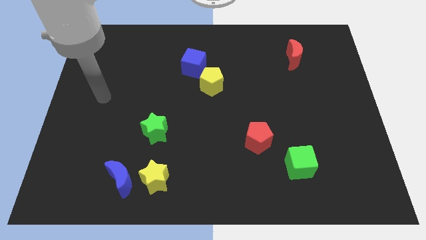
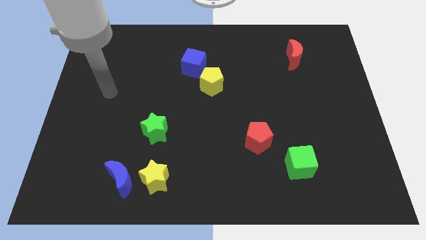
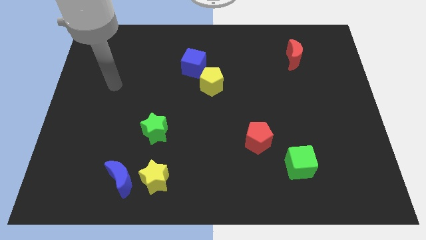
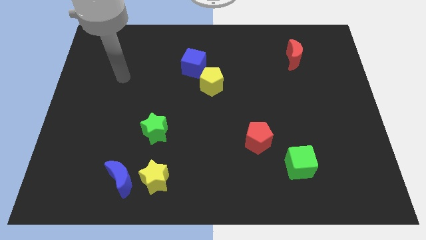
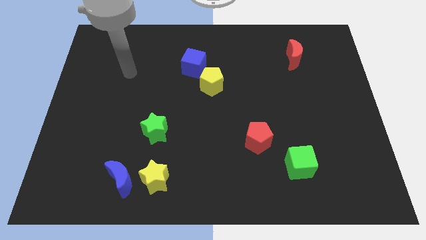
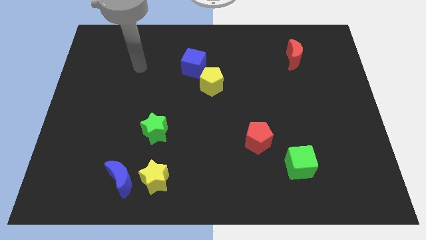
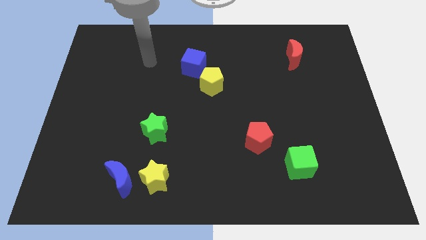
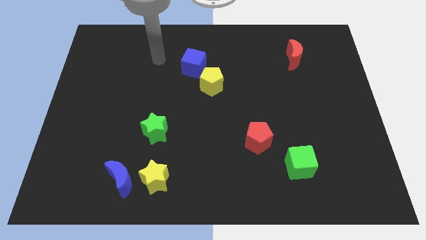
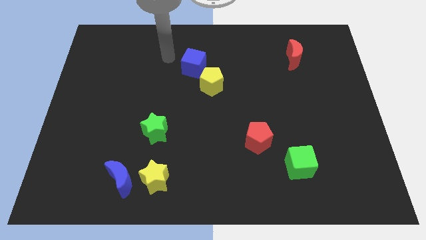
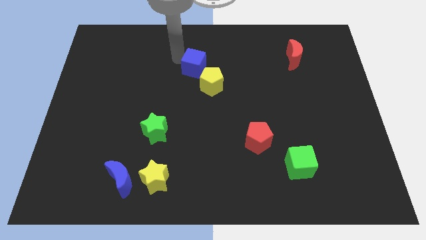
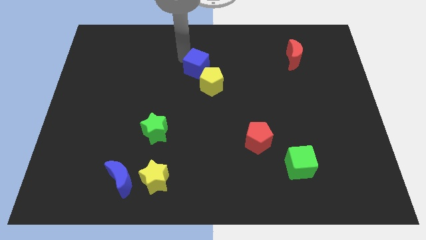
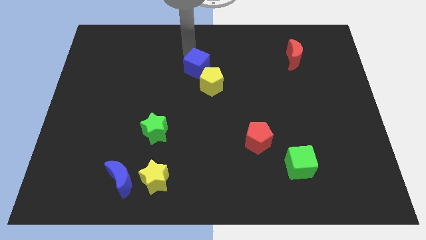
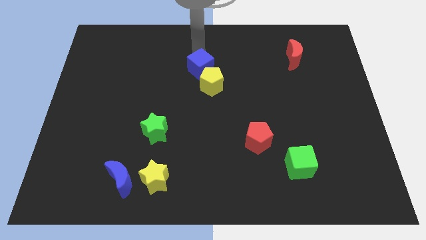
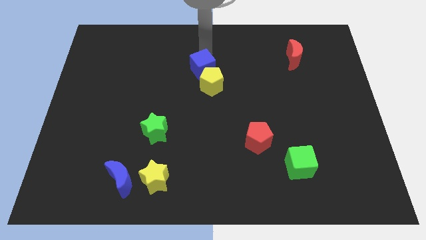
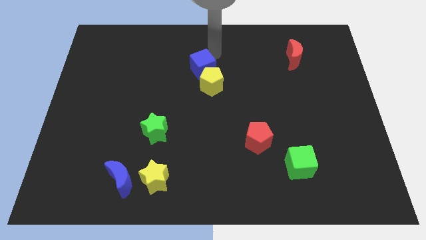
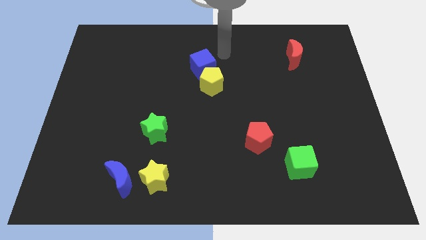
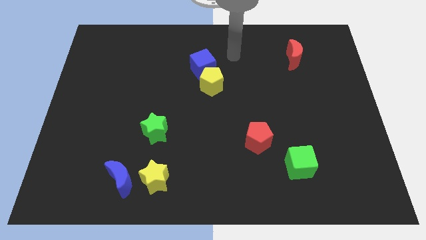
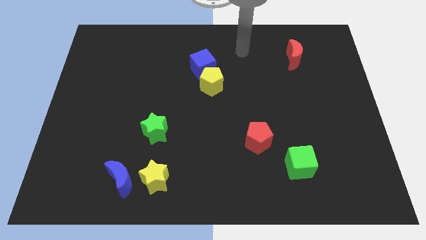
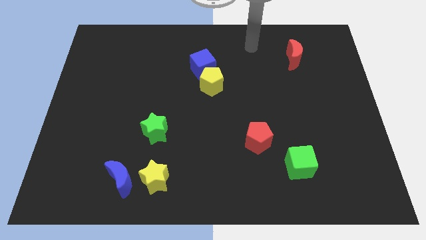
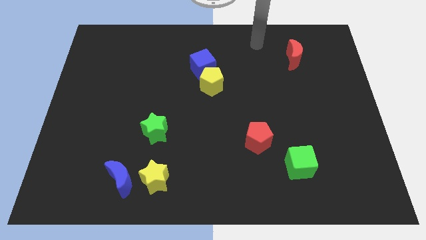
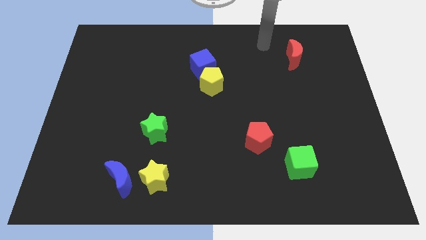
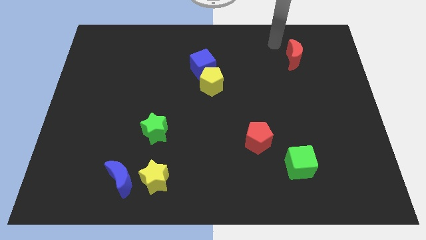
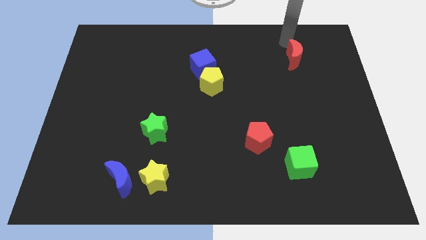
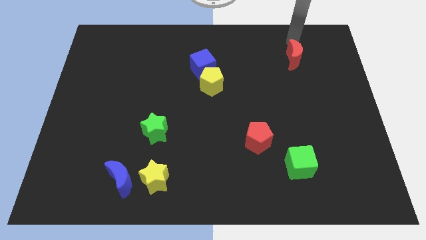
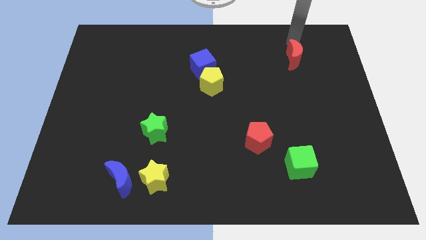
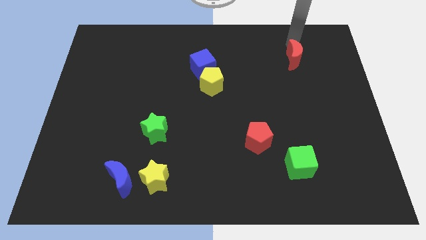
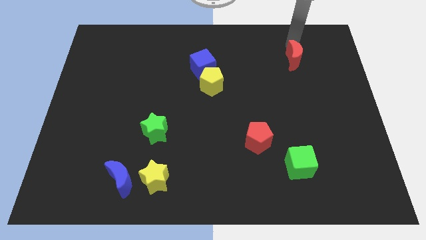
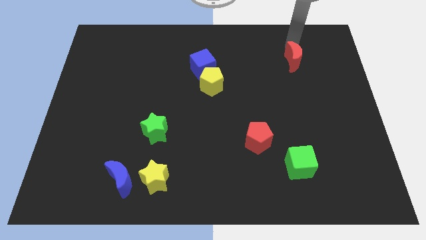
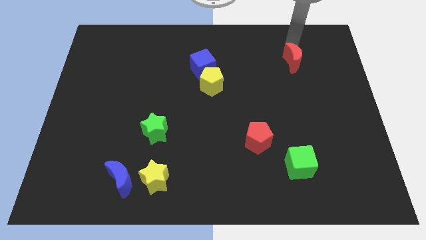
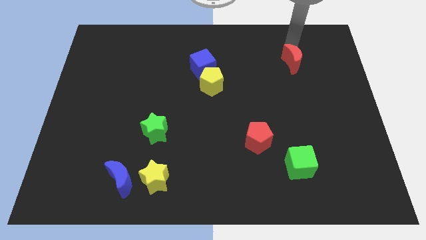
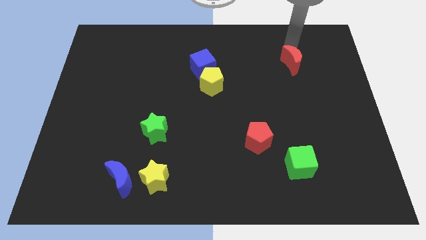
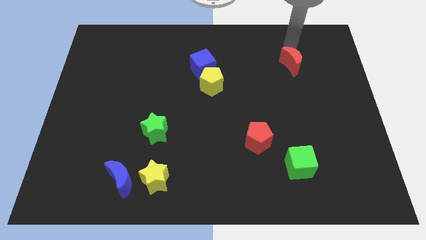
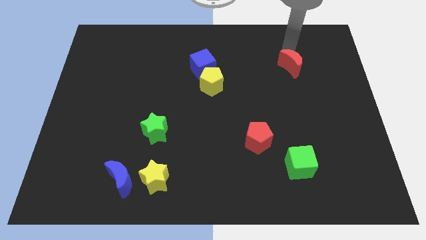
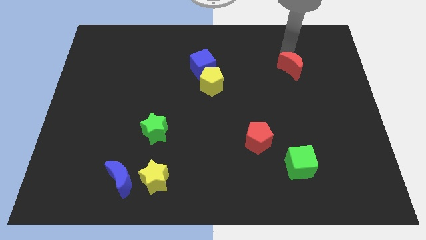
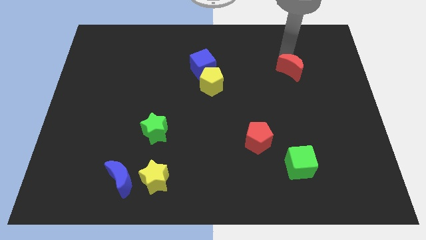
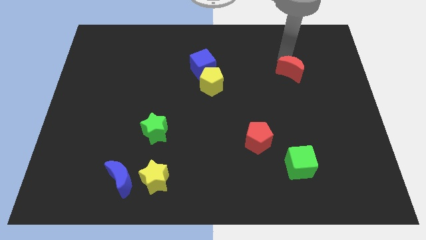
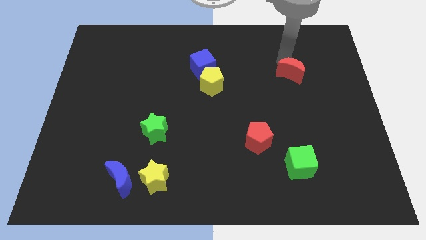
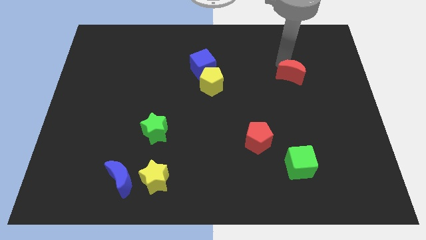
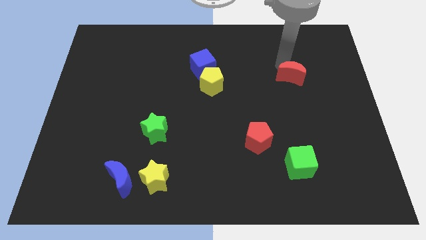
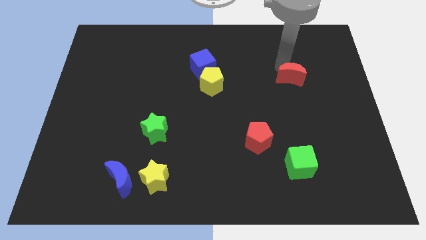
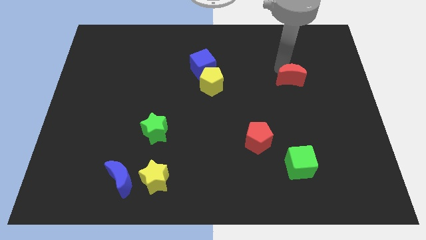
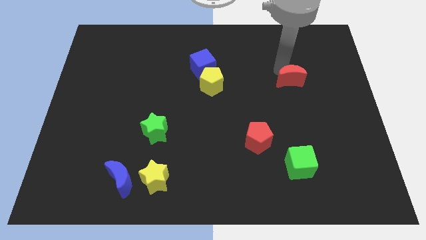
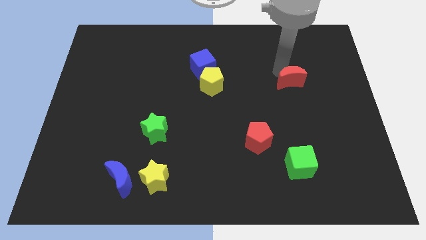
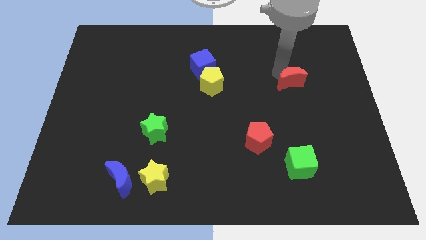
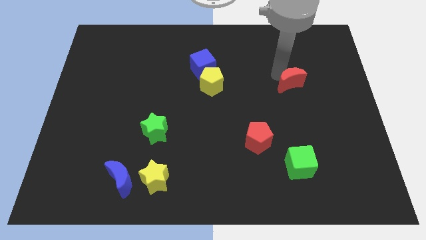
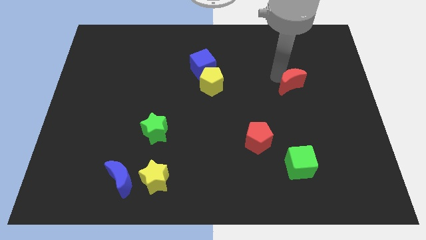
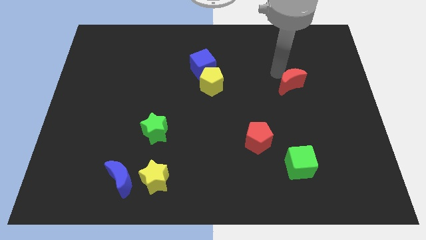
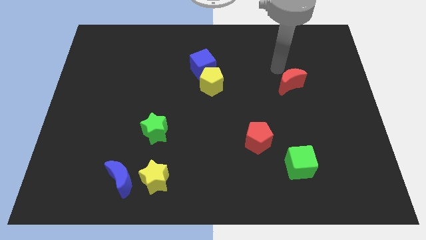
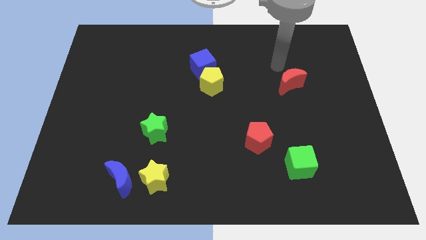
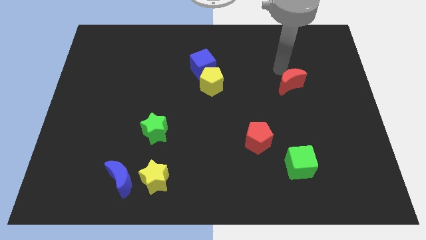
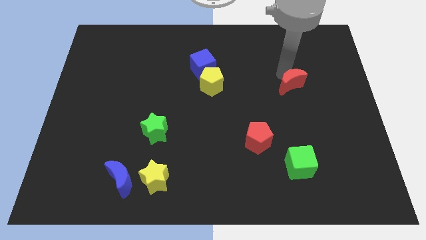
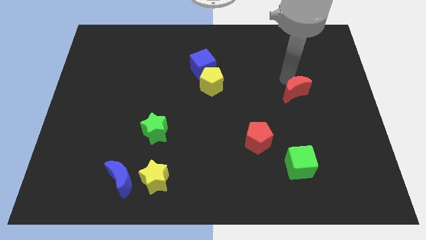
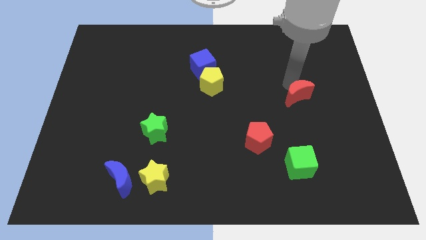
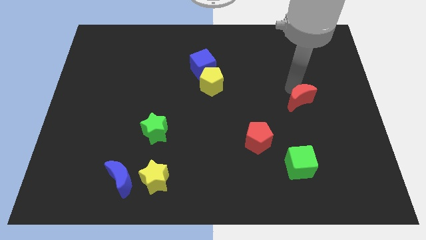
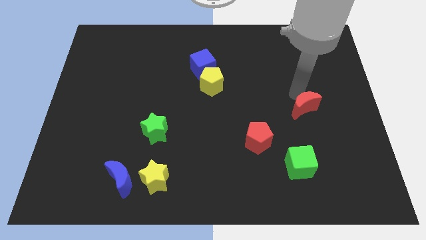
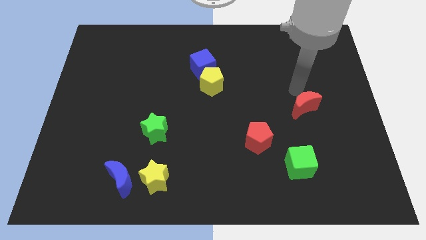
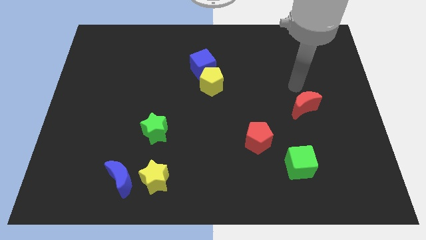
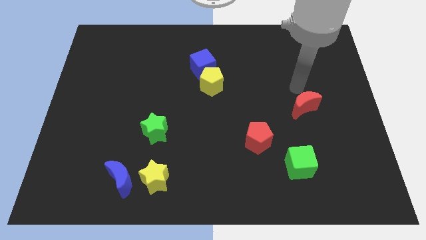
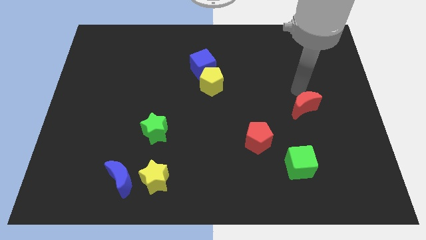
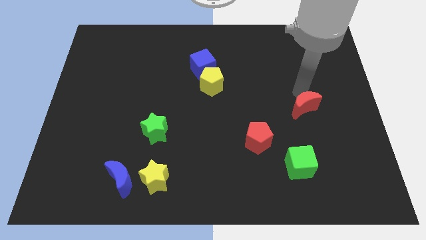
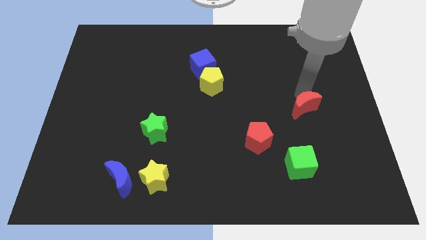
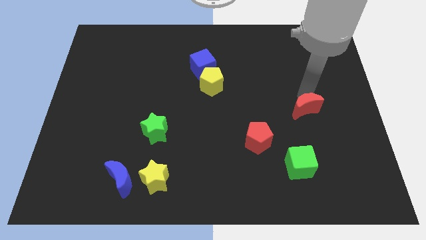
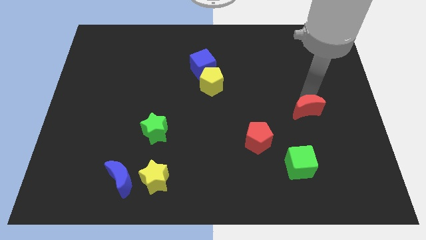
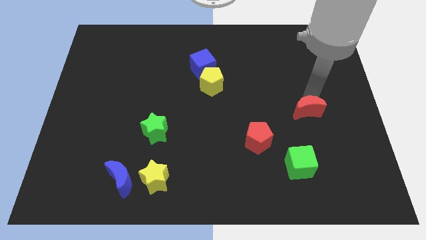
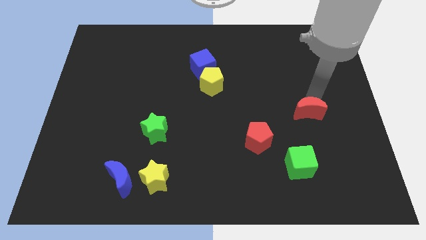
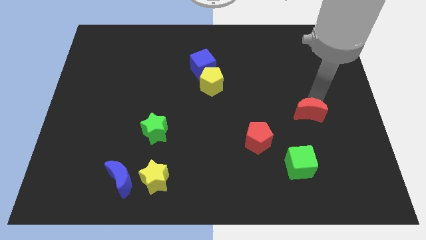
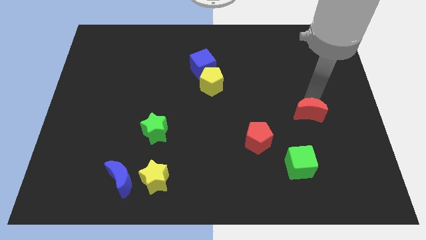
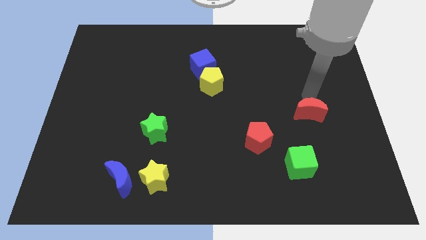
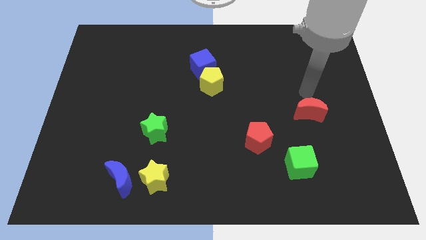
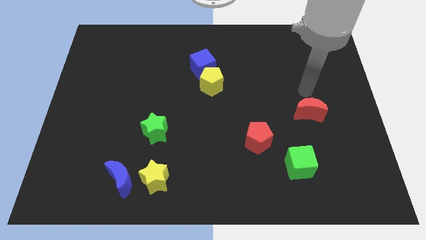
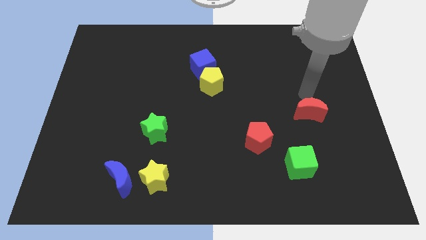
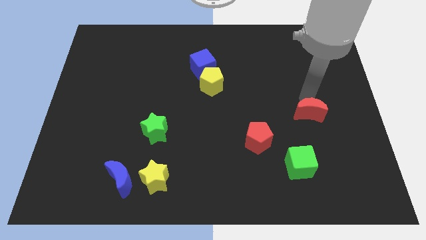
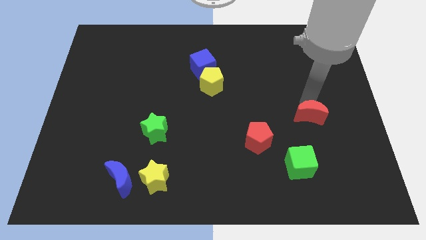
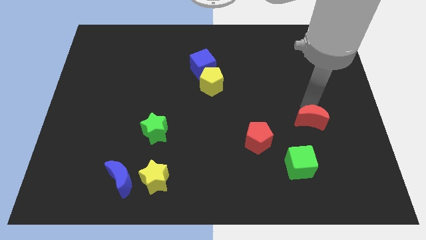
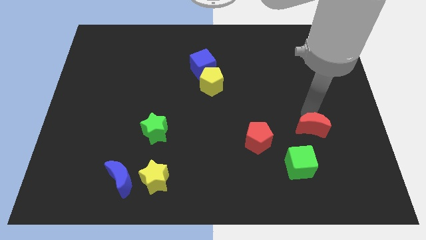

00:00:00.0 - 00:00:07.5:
slide the red moon to the top right side of the green cube

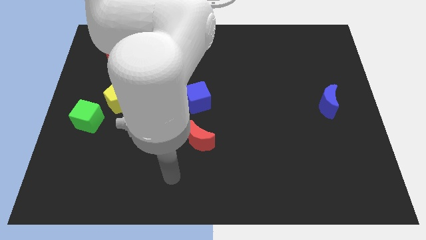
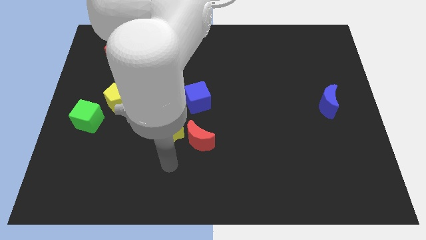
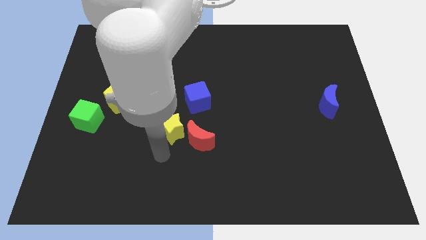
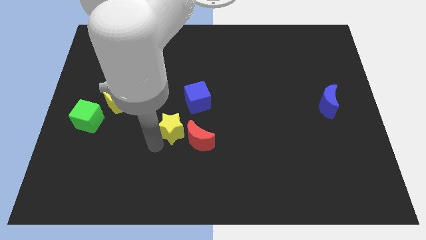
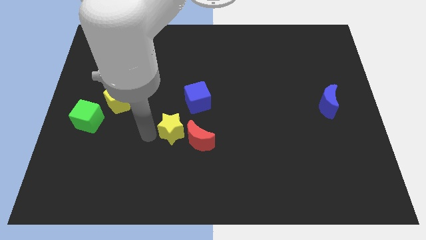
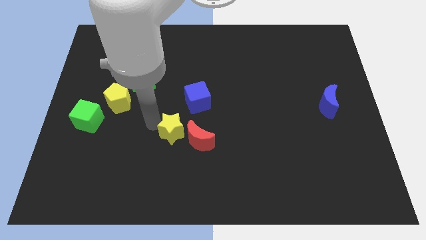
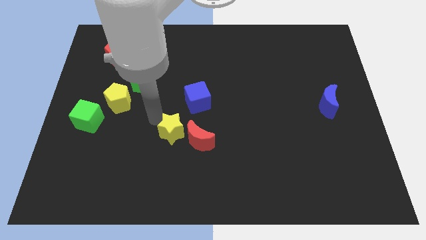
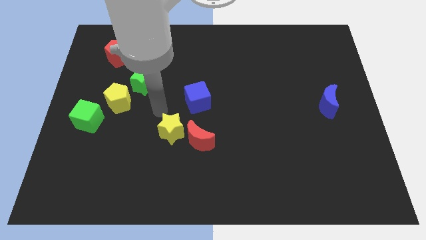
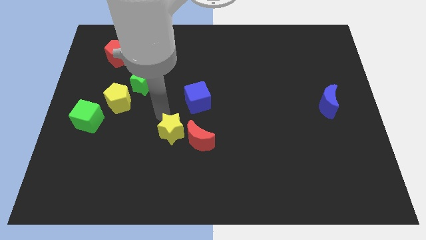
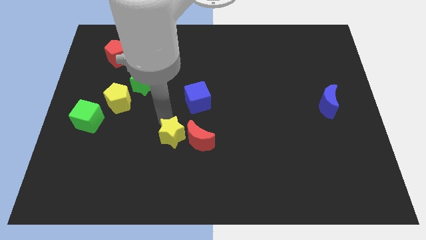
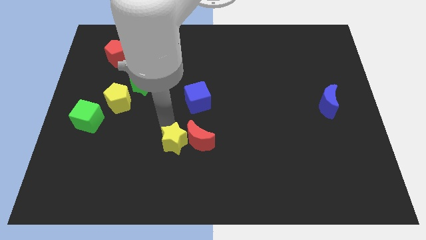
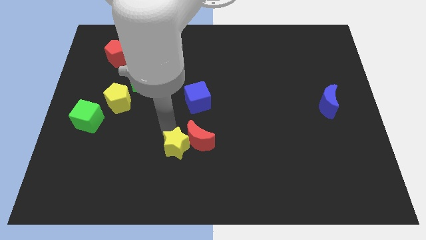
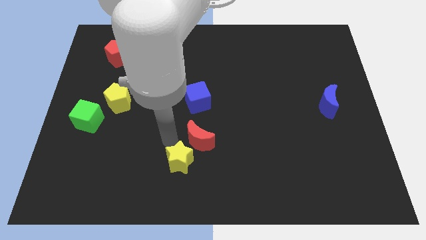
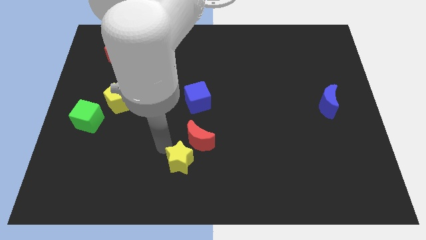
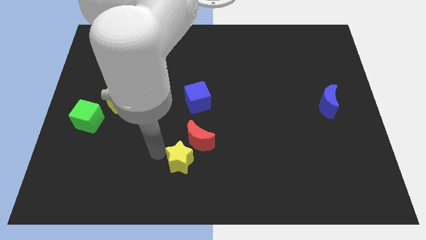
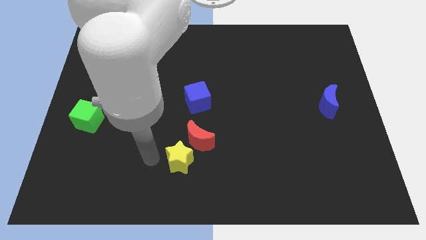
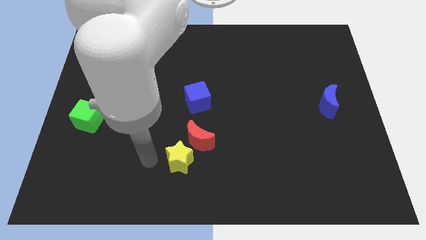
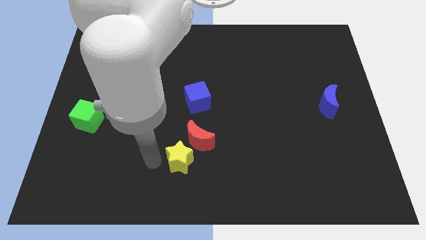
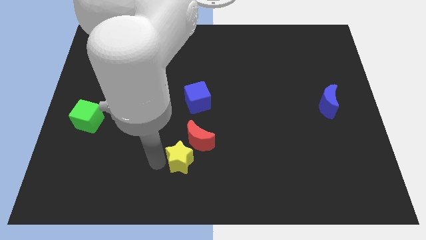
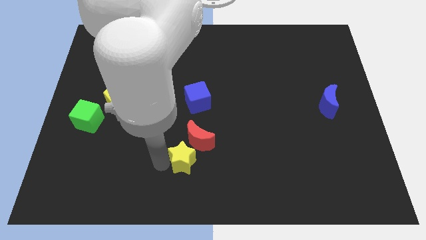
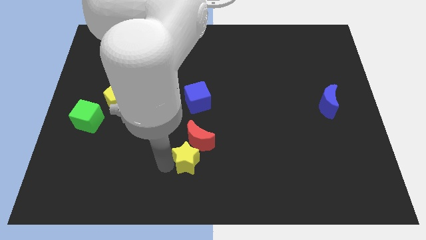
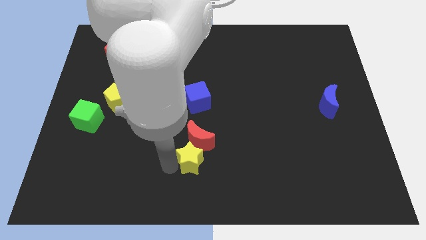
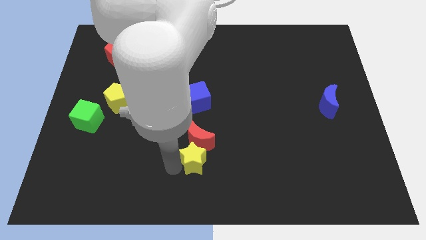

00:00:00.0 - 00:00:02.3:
put the yellow star to the bottom right side of the red moon
